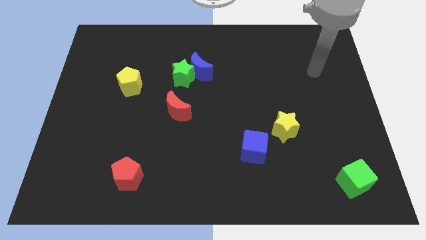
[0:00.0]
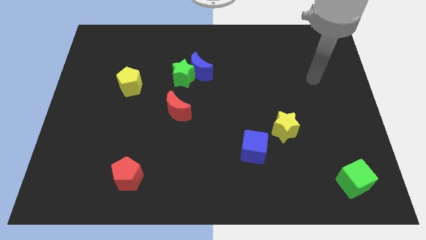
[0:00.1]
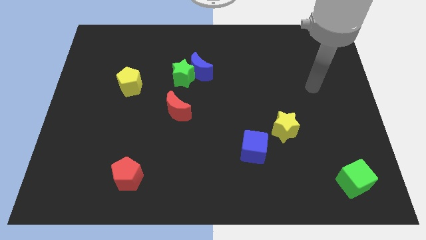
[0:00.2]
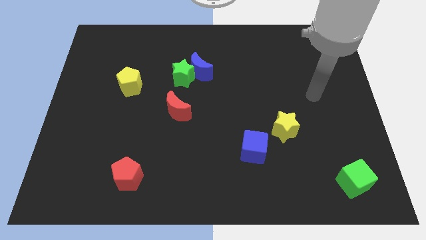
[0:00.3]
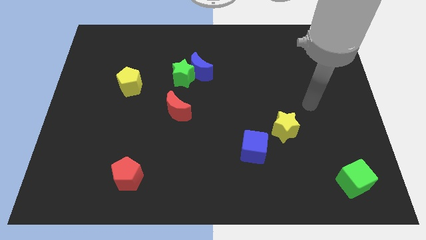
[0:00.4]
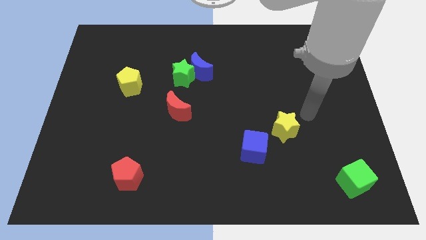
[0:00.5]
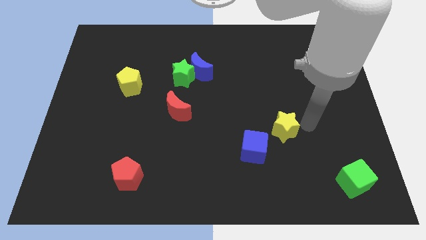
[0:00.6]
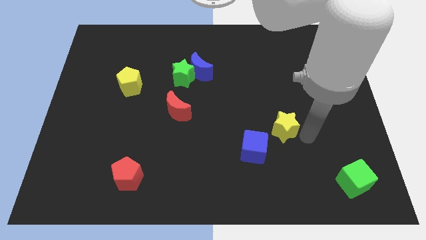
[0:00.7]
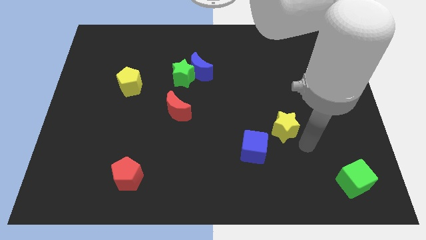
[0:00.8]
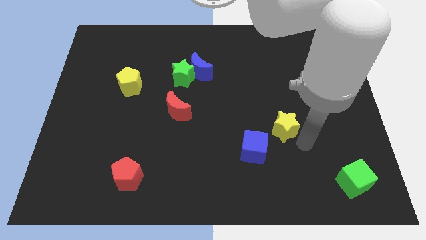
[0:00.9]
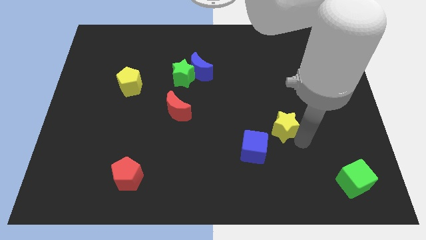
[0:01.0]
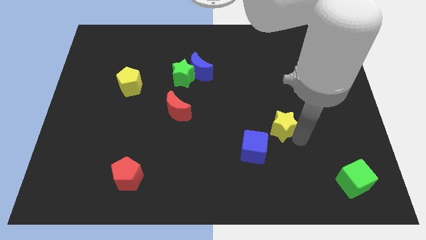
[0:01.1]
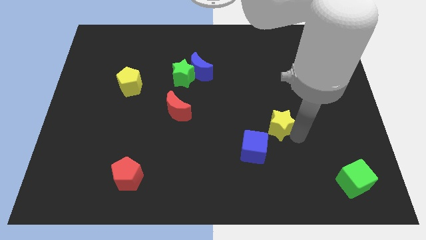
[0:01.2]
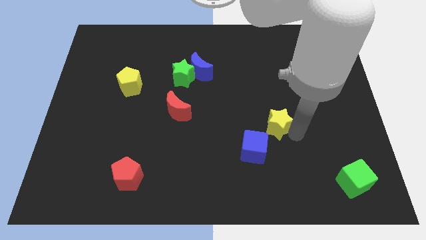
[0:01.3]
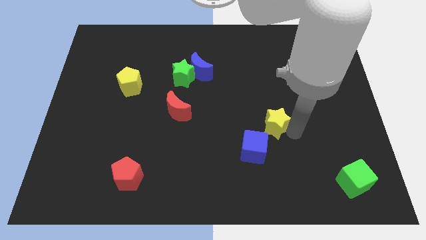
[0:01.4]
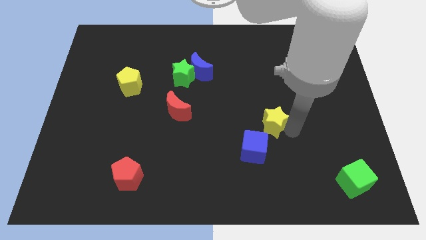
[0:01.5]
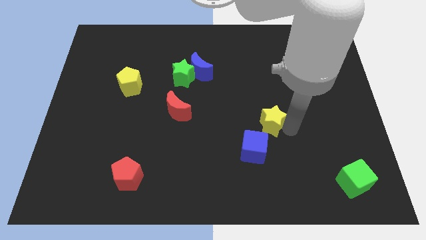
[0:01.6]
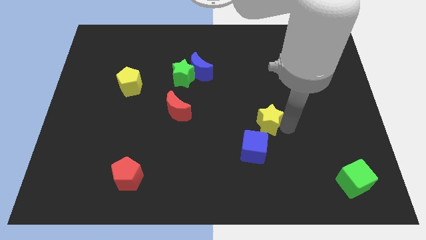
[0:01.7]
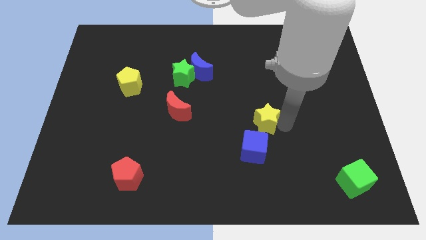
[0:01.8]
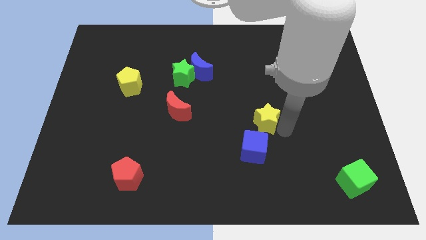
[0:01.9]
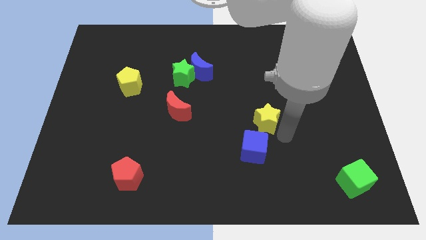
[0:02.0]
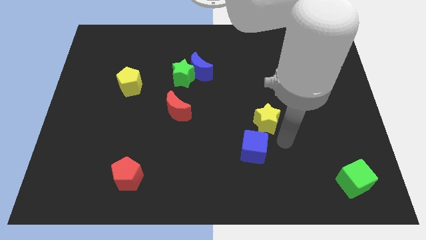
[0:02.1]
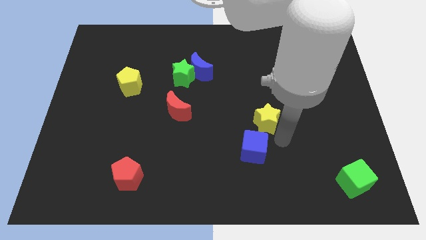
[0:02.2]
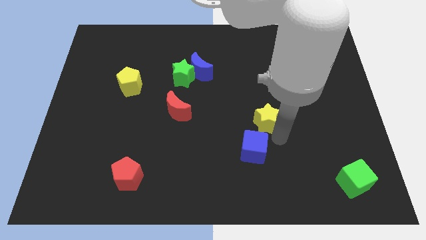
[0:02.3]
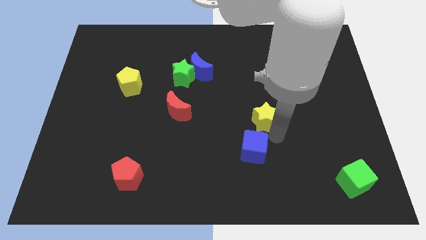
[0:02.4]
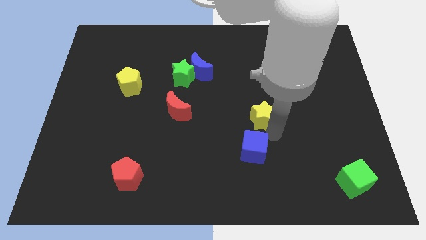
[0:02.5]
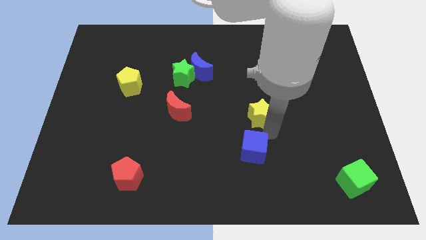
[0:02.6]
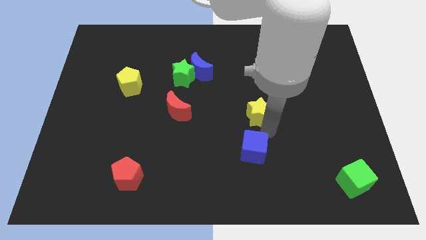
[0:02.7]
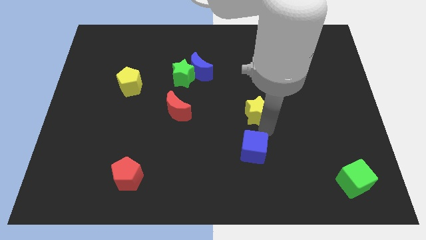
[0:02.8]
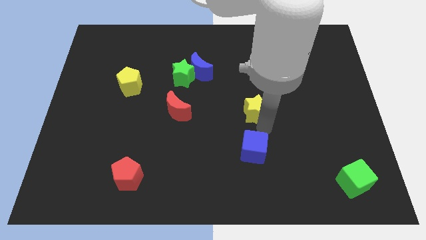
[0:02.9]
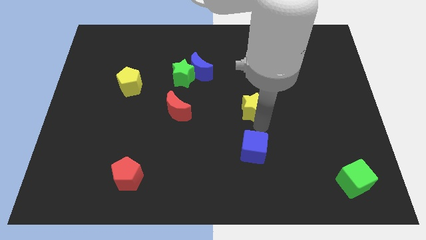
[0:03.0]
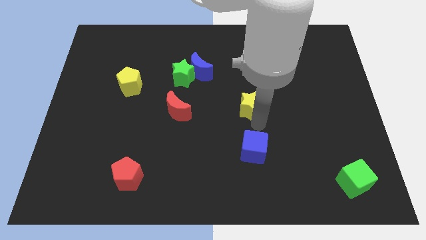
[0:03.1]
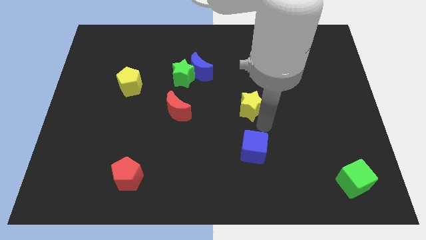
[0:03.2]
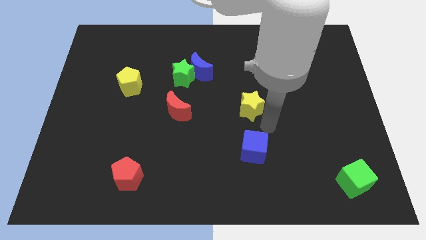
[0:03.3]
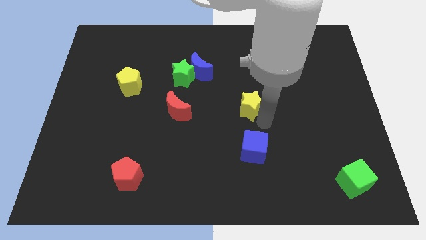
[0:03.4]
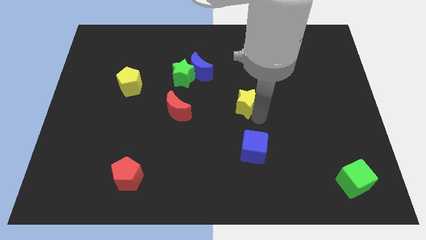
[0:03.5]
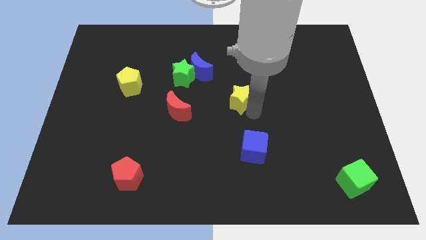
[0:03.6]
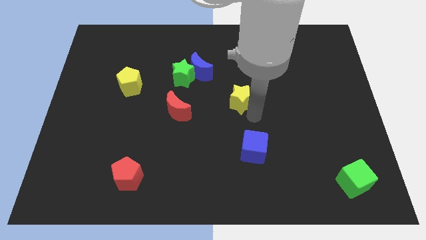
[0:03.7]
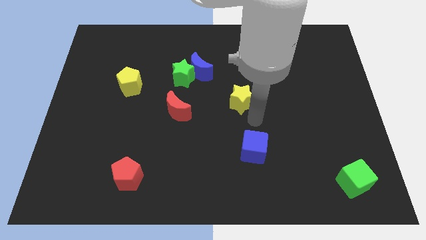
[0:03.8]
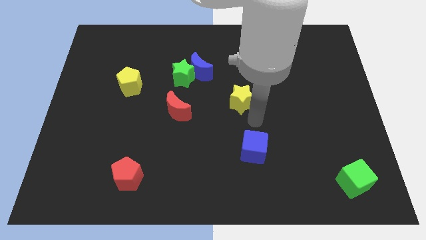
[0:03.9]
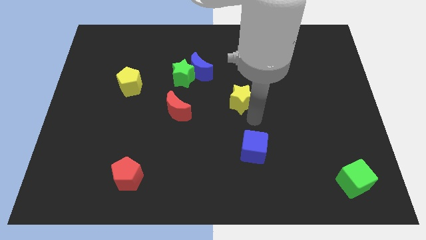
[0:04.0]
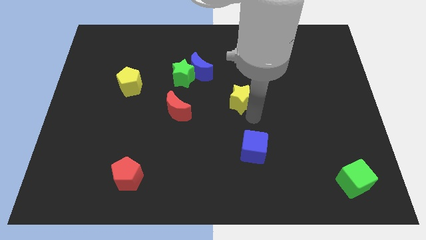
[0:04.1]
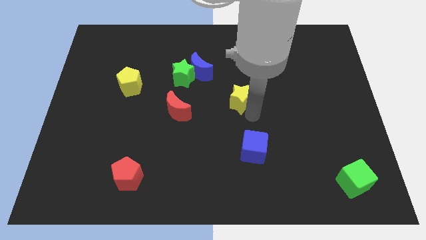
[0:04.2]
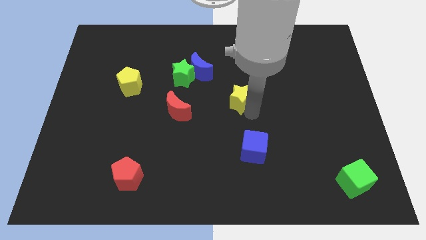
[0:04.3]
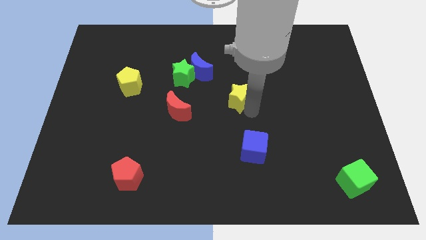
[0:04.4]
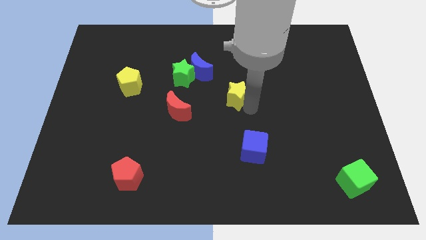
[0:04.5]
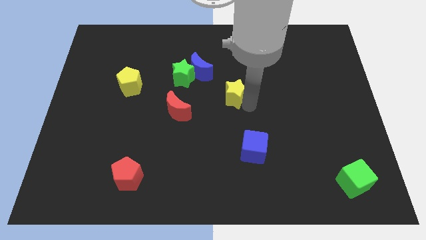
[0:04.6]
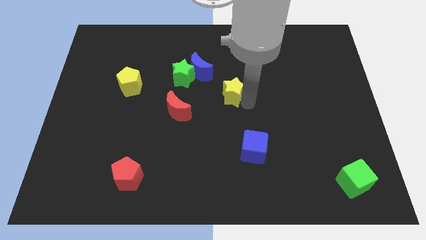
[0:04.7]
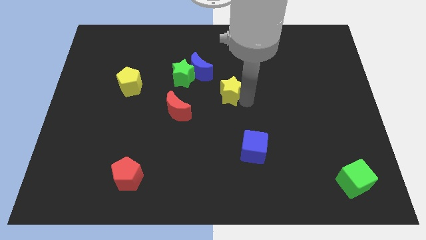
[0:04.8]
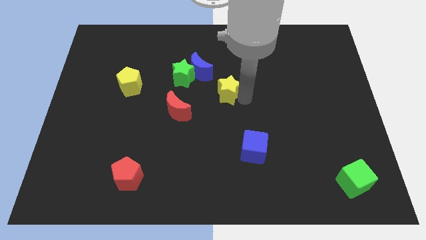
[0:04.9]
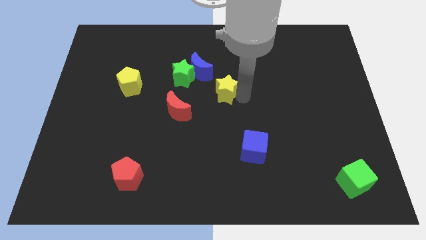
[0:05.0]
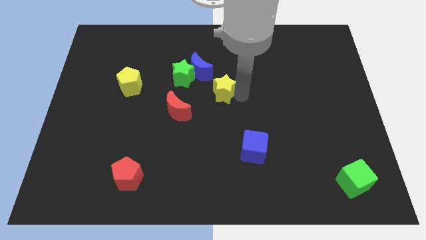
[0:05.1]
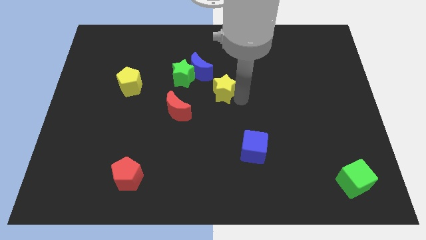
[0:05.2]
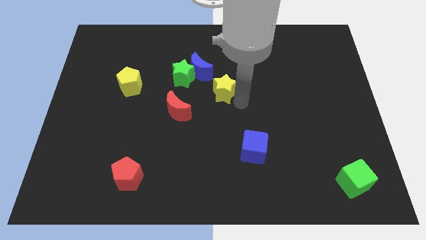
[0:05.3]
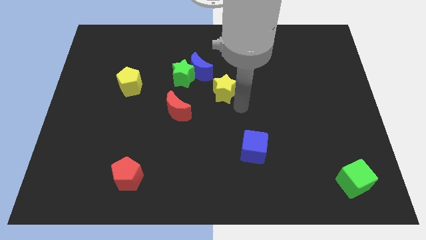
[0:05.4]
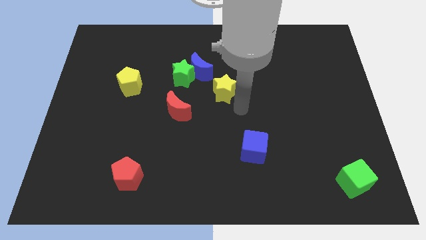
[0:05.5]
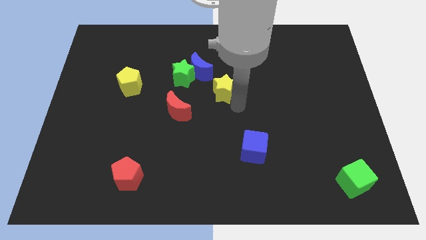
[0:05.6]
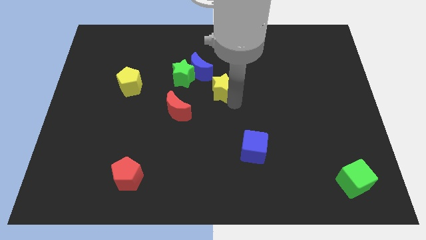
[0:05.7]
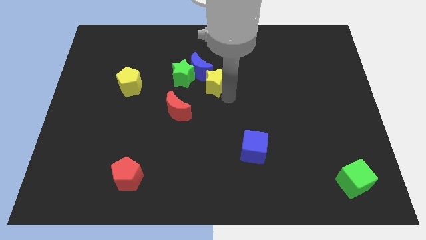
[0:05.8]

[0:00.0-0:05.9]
move the yellow star close to the blue moon

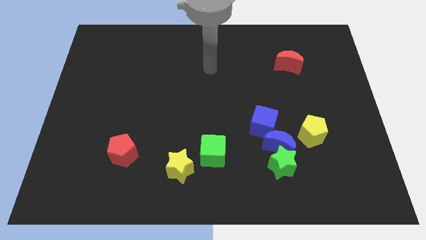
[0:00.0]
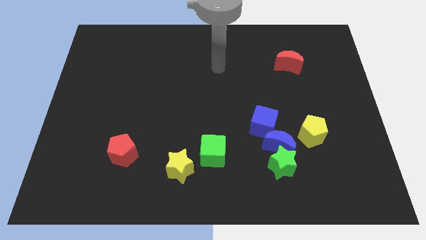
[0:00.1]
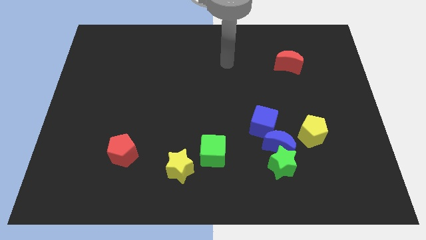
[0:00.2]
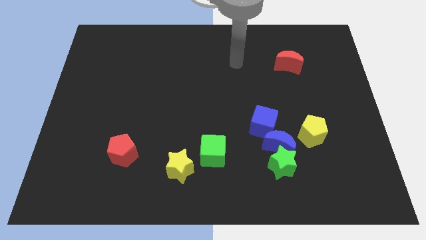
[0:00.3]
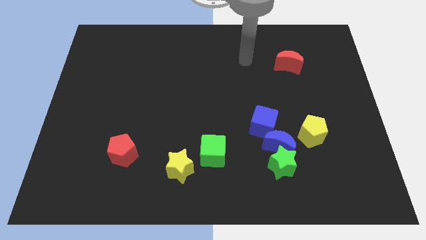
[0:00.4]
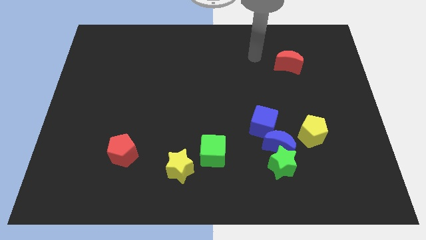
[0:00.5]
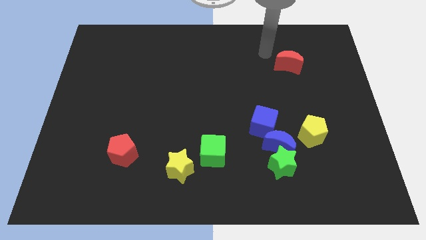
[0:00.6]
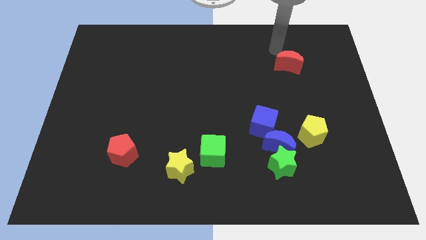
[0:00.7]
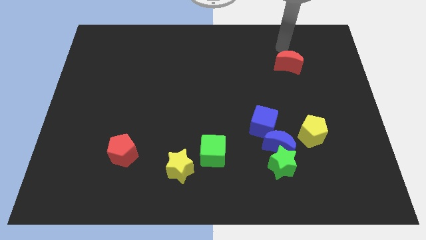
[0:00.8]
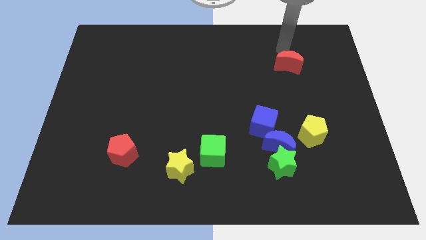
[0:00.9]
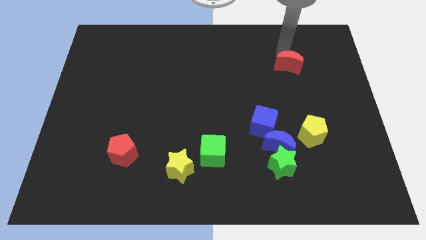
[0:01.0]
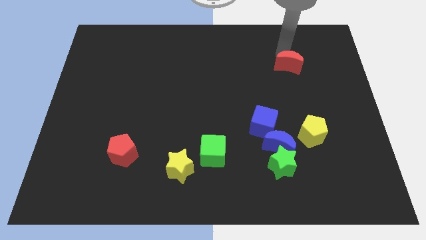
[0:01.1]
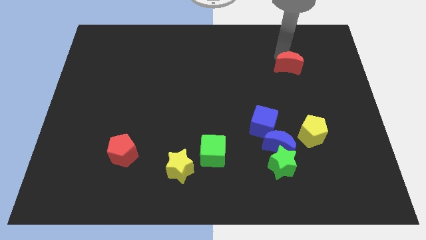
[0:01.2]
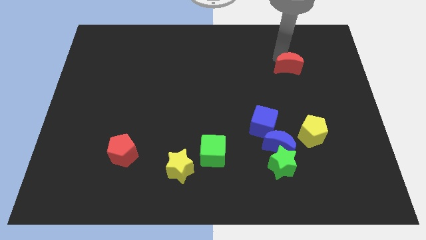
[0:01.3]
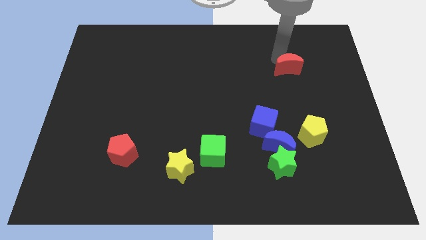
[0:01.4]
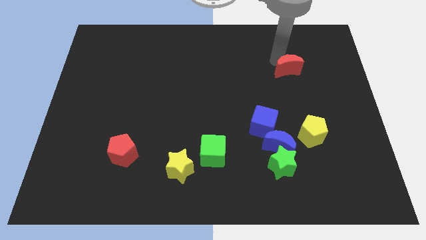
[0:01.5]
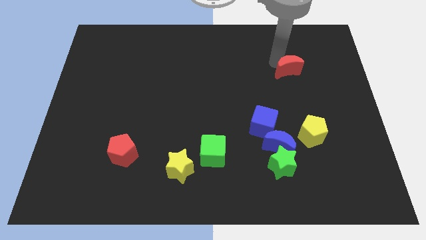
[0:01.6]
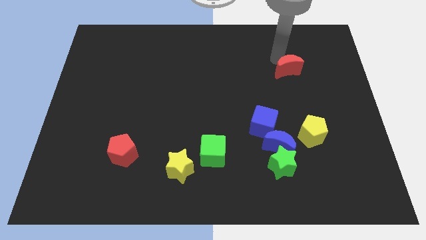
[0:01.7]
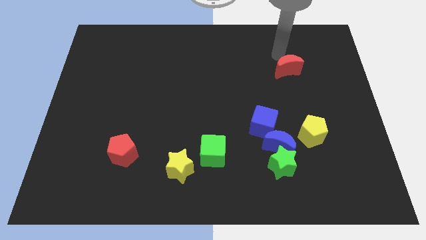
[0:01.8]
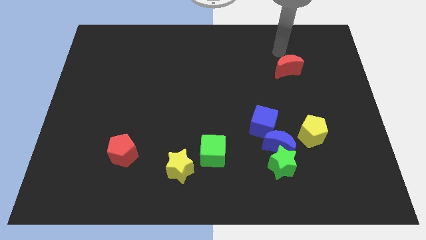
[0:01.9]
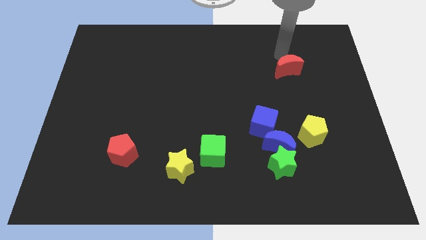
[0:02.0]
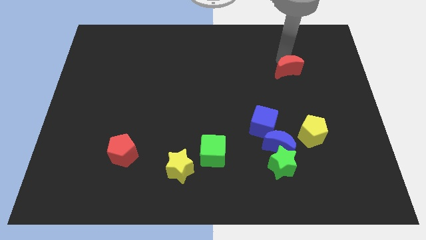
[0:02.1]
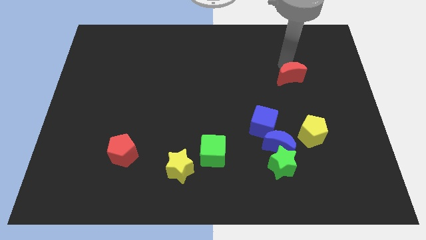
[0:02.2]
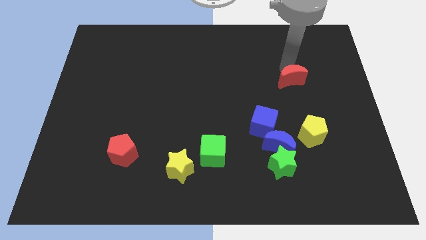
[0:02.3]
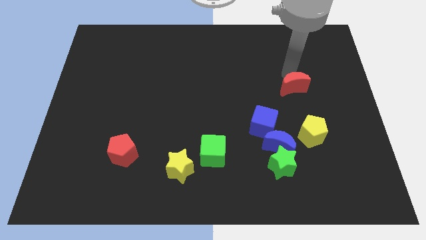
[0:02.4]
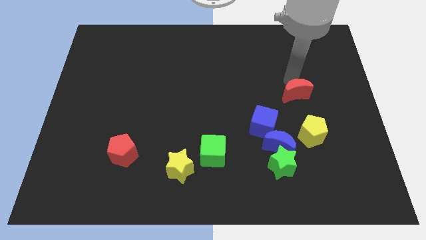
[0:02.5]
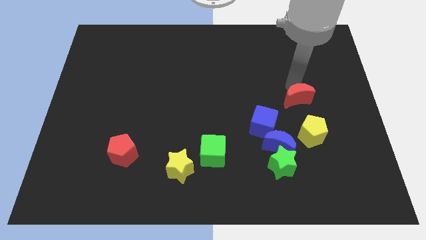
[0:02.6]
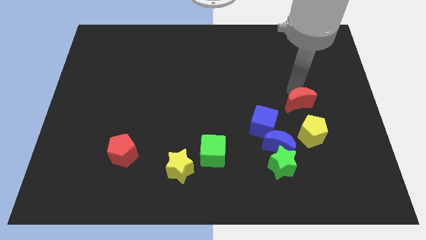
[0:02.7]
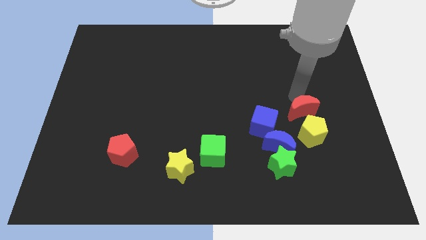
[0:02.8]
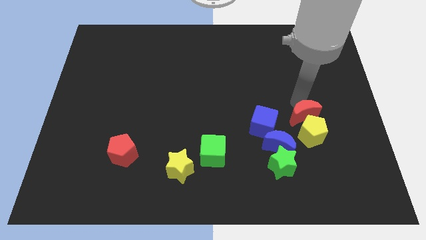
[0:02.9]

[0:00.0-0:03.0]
put the red moon close to the yellow pentagon
